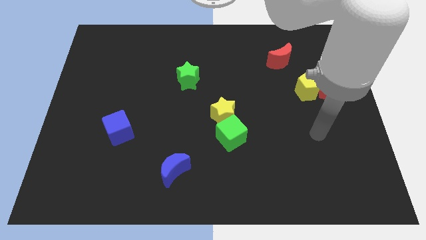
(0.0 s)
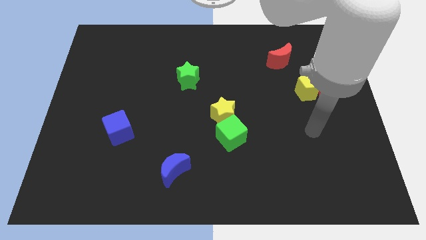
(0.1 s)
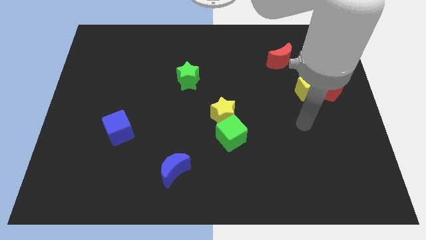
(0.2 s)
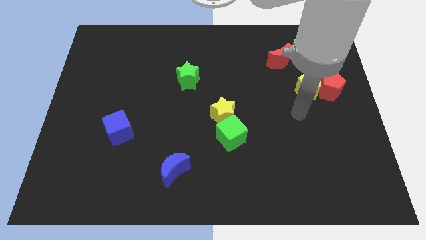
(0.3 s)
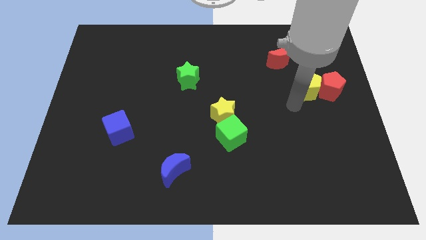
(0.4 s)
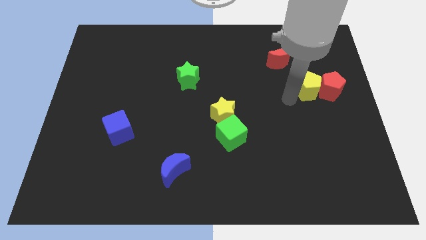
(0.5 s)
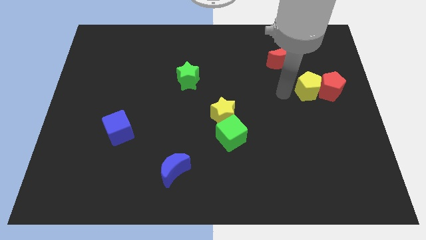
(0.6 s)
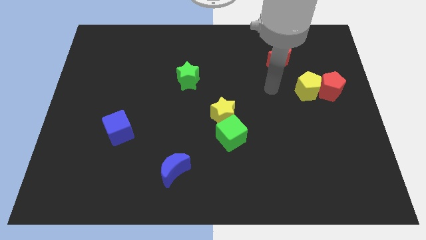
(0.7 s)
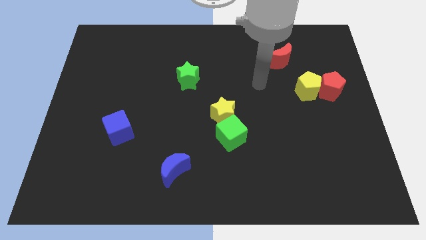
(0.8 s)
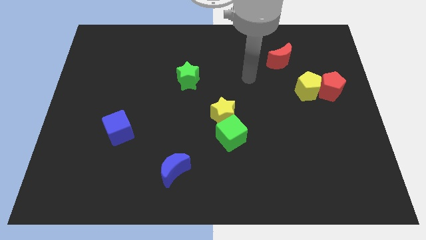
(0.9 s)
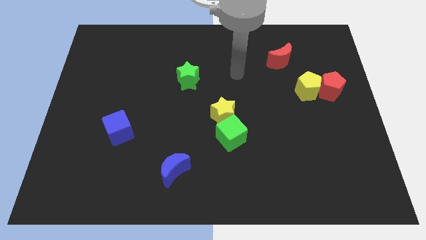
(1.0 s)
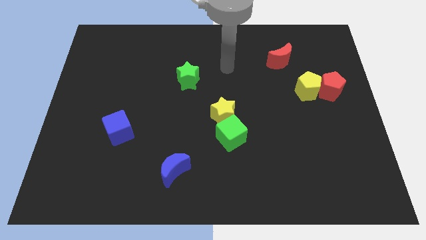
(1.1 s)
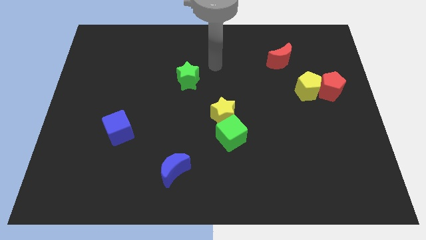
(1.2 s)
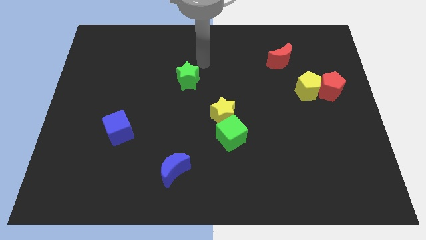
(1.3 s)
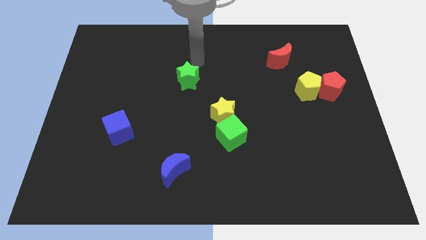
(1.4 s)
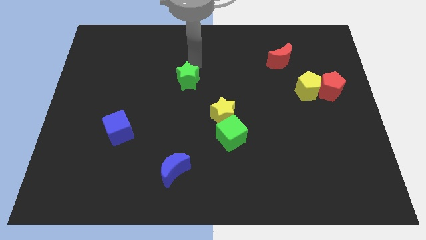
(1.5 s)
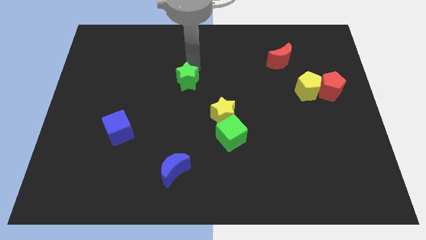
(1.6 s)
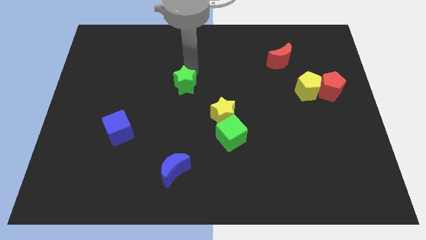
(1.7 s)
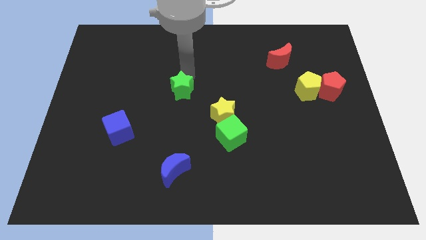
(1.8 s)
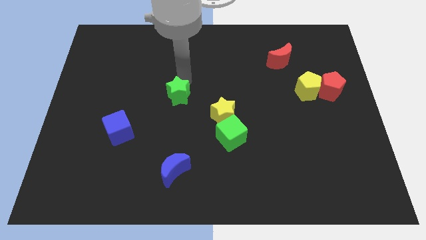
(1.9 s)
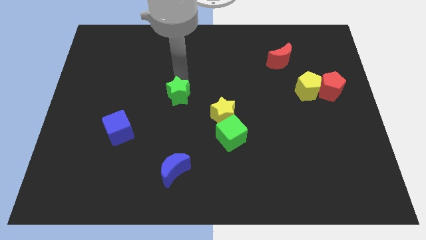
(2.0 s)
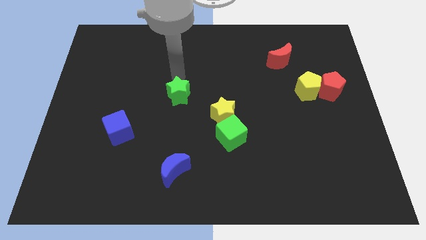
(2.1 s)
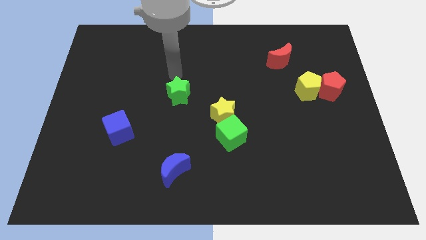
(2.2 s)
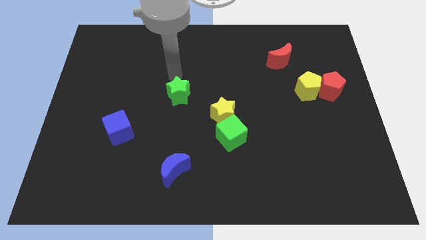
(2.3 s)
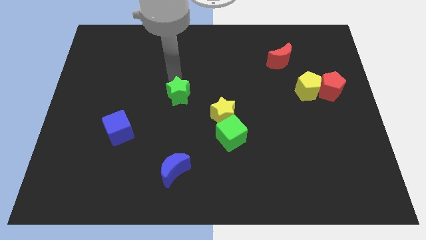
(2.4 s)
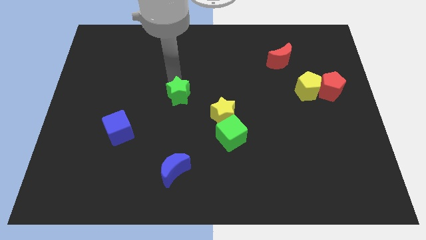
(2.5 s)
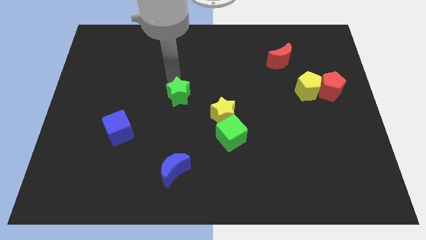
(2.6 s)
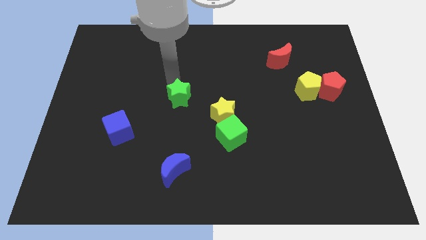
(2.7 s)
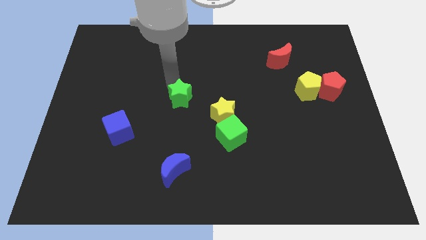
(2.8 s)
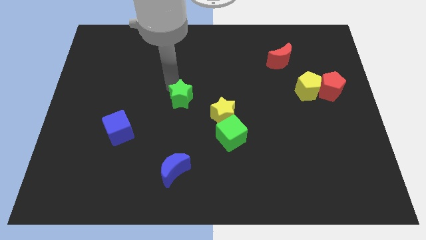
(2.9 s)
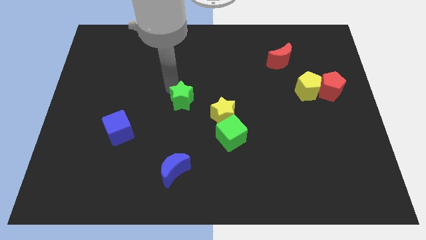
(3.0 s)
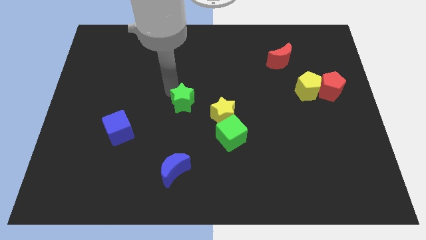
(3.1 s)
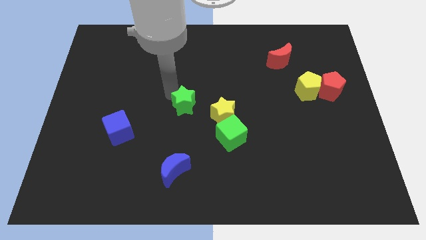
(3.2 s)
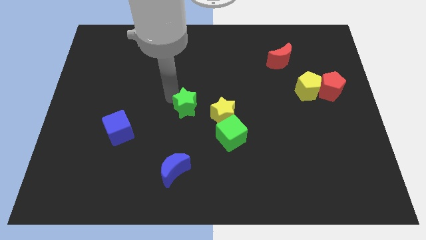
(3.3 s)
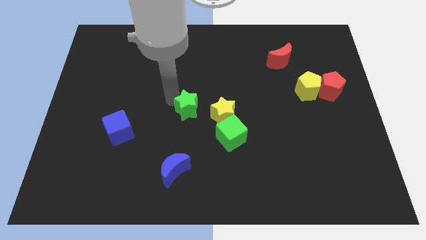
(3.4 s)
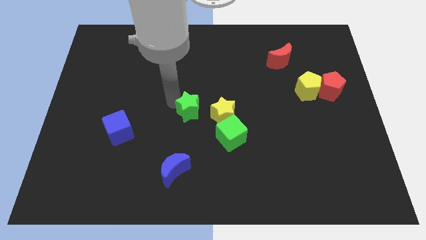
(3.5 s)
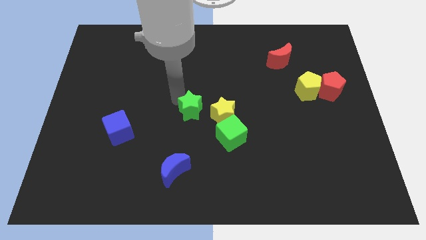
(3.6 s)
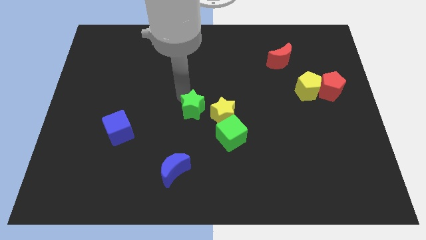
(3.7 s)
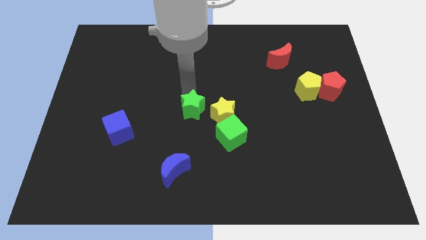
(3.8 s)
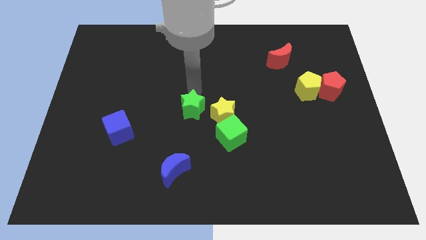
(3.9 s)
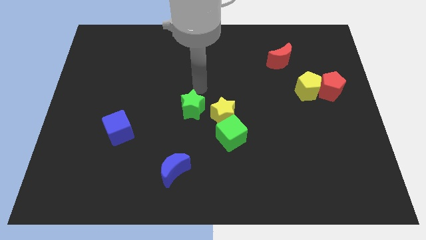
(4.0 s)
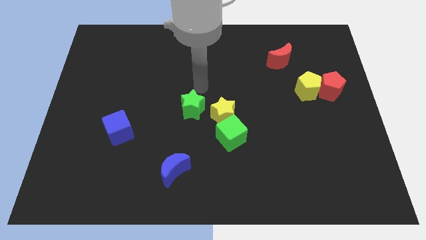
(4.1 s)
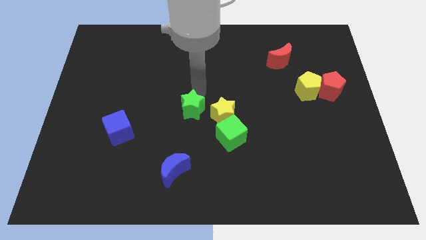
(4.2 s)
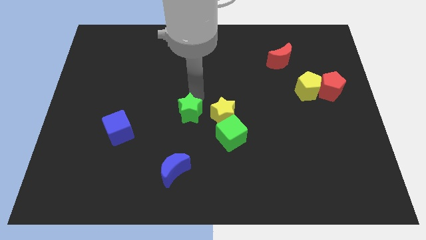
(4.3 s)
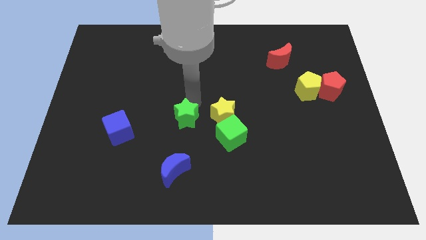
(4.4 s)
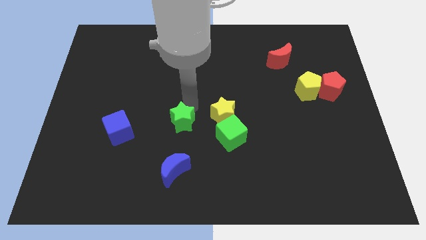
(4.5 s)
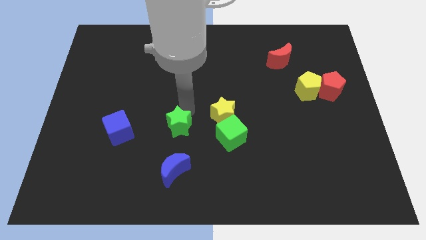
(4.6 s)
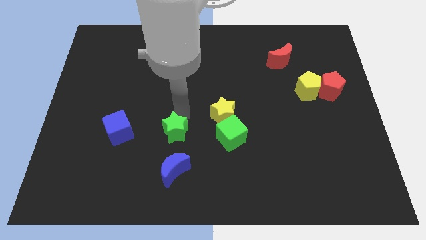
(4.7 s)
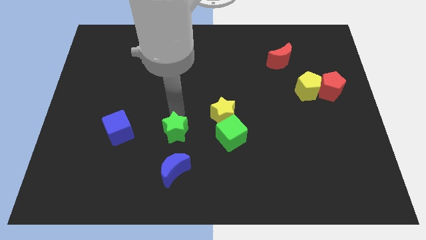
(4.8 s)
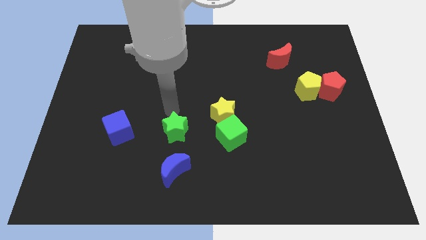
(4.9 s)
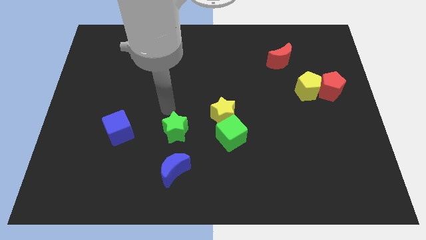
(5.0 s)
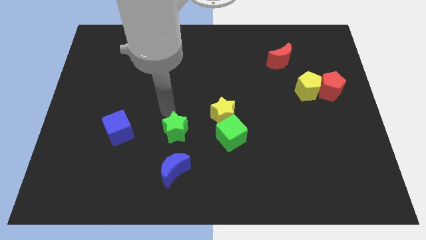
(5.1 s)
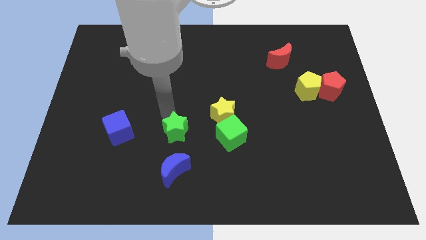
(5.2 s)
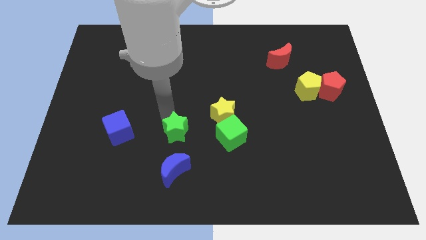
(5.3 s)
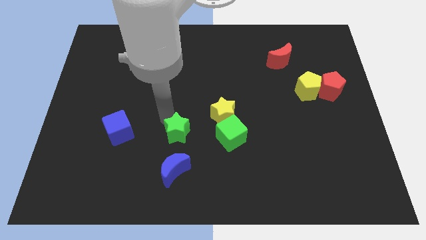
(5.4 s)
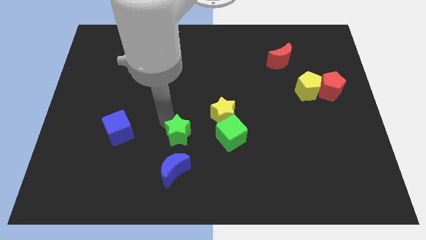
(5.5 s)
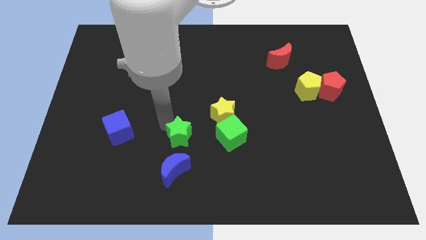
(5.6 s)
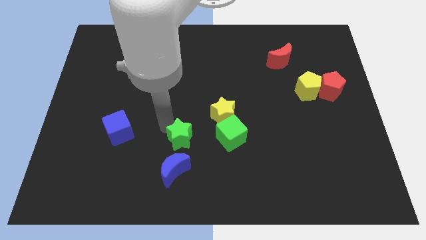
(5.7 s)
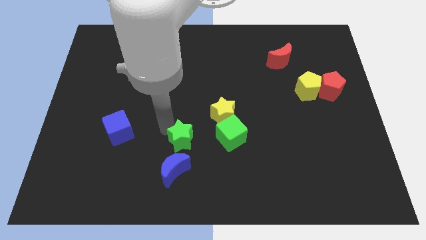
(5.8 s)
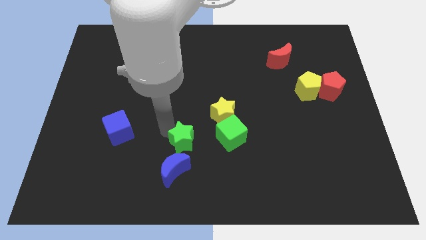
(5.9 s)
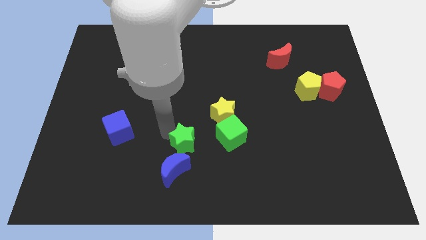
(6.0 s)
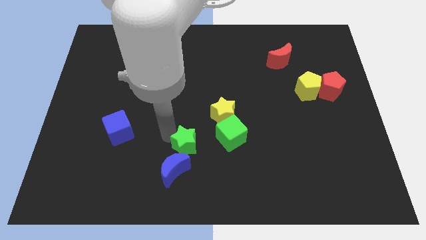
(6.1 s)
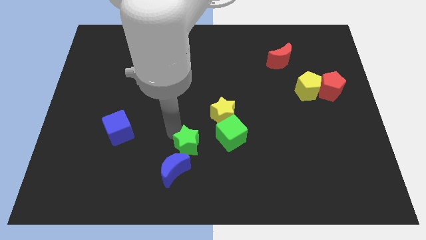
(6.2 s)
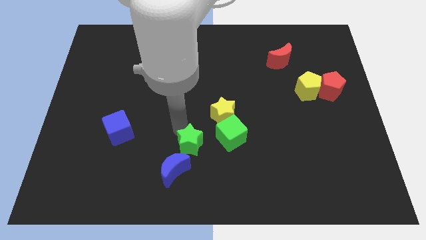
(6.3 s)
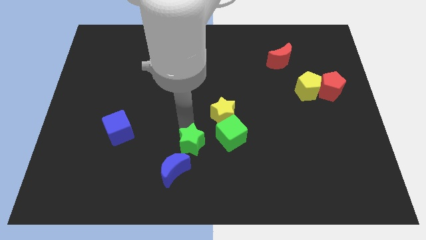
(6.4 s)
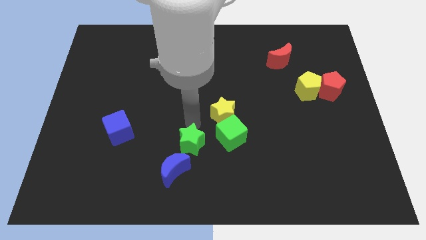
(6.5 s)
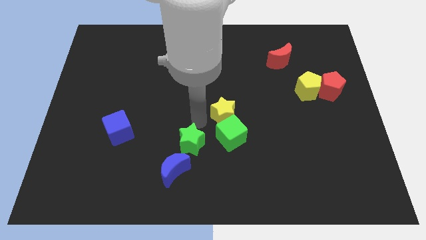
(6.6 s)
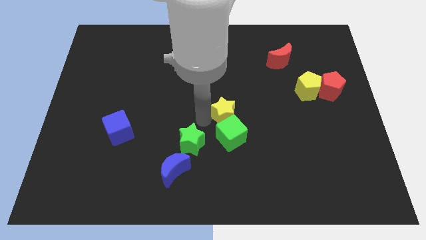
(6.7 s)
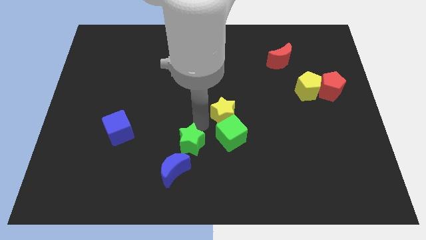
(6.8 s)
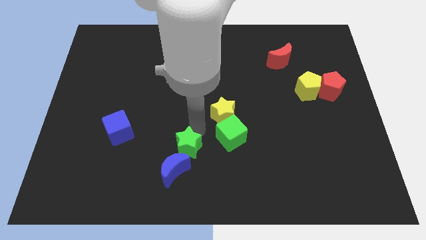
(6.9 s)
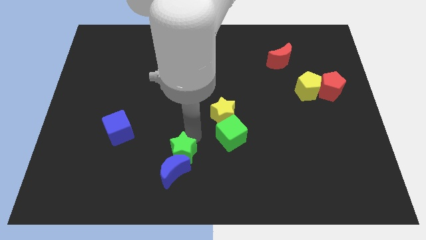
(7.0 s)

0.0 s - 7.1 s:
move the green star next to the blue moon
